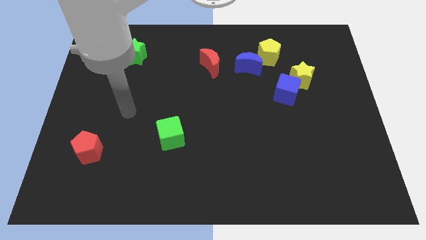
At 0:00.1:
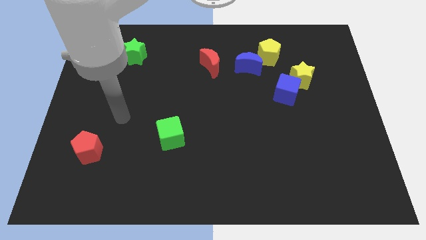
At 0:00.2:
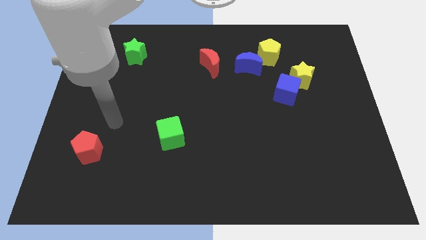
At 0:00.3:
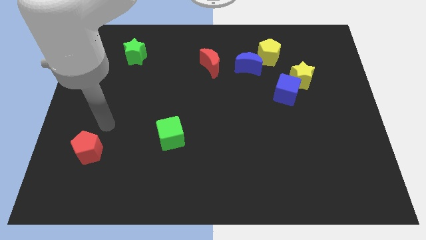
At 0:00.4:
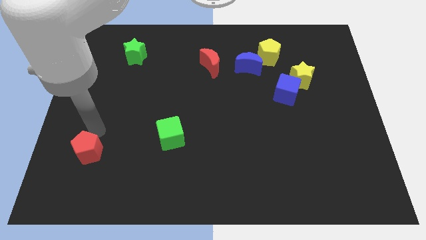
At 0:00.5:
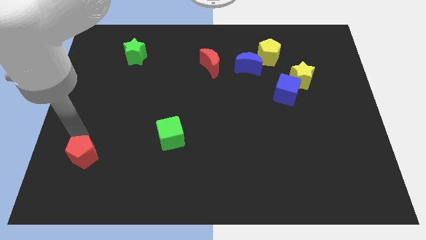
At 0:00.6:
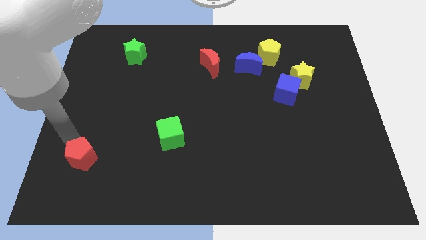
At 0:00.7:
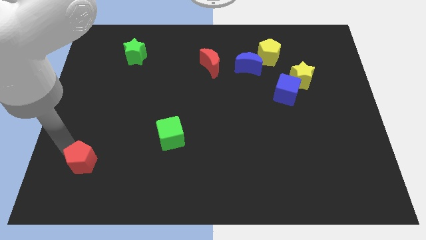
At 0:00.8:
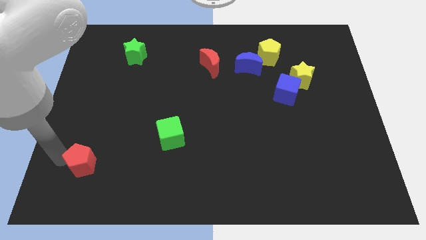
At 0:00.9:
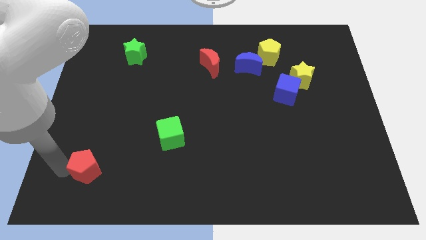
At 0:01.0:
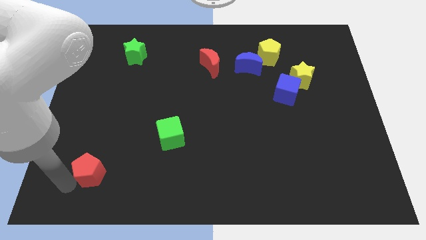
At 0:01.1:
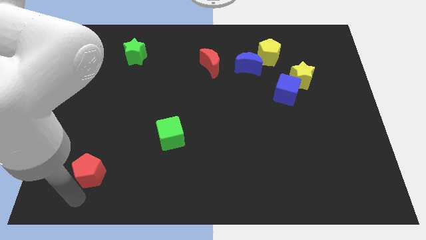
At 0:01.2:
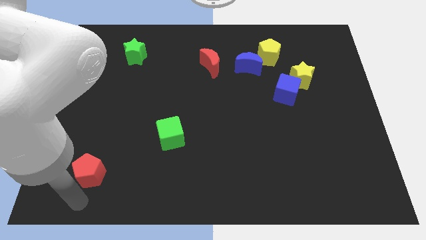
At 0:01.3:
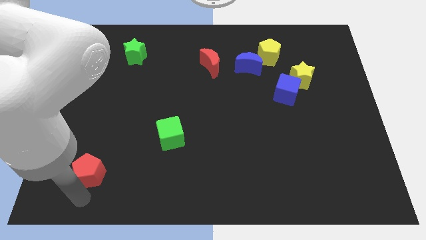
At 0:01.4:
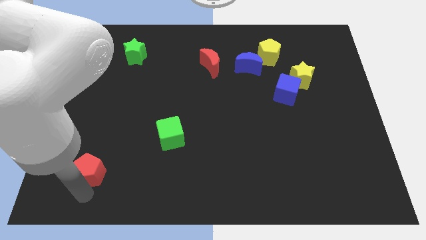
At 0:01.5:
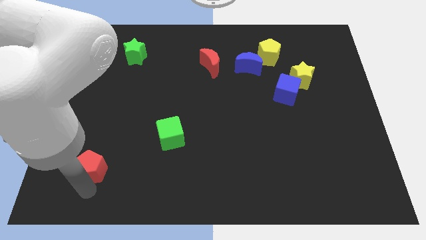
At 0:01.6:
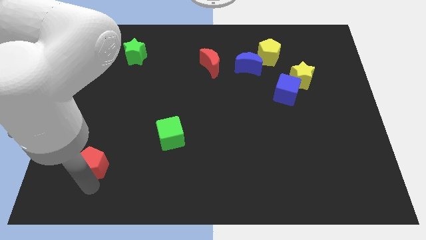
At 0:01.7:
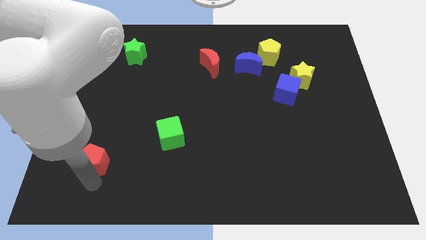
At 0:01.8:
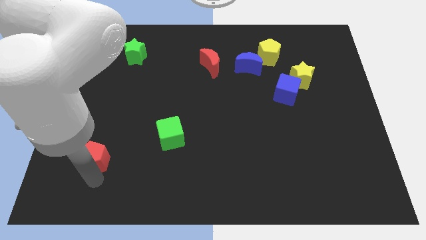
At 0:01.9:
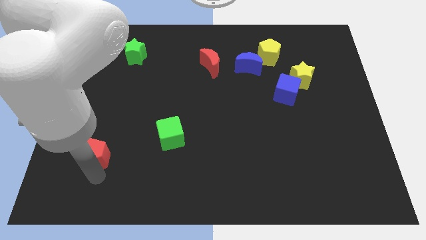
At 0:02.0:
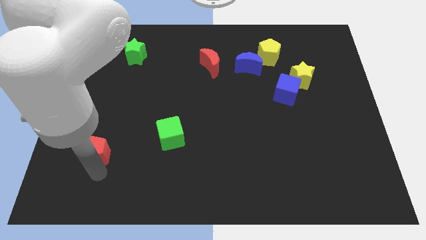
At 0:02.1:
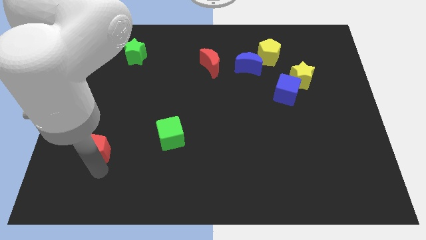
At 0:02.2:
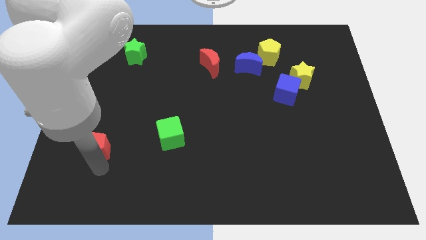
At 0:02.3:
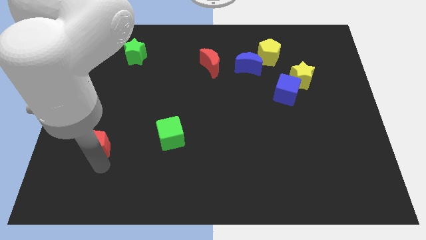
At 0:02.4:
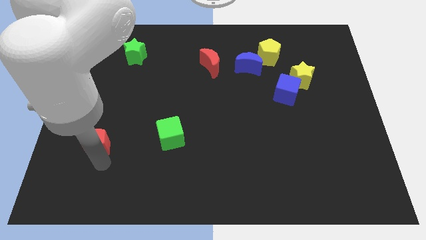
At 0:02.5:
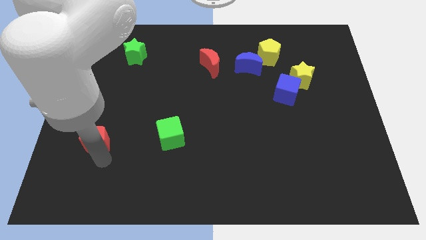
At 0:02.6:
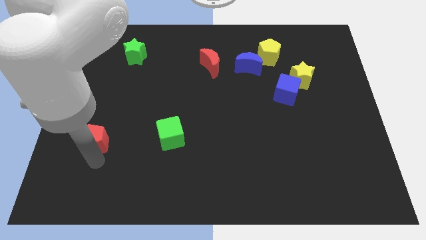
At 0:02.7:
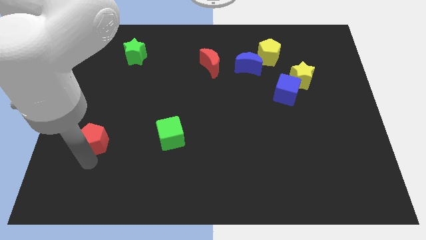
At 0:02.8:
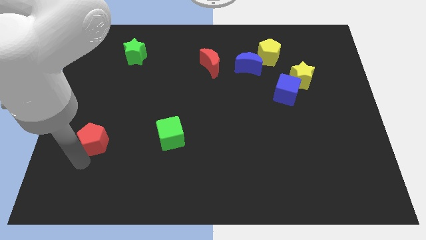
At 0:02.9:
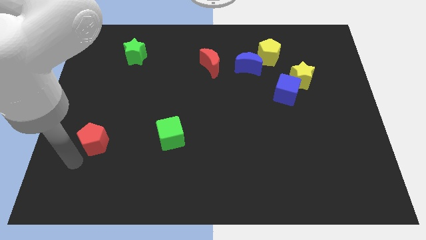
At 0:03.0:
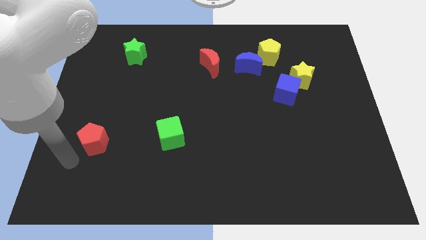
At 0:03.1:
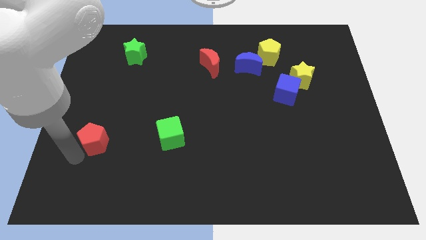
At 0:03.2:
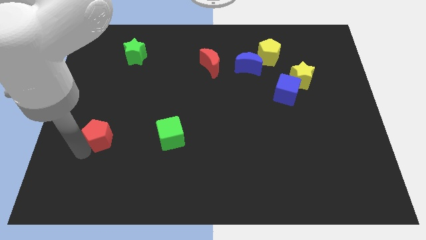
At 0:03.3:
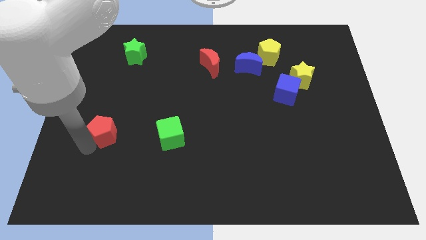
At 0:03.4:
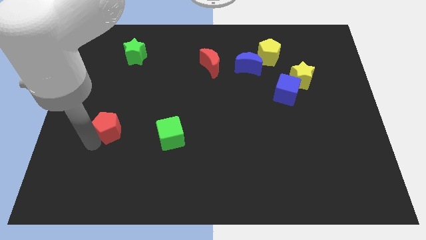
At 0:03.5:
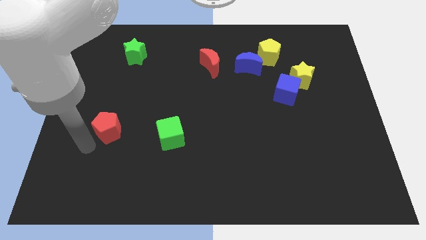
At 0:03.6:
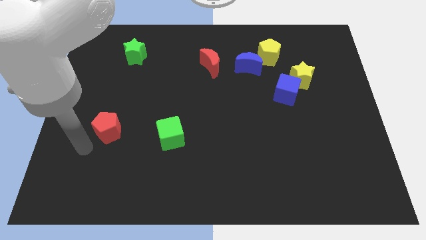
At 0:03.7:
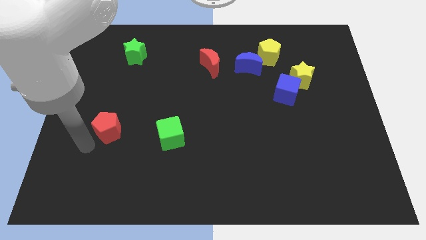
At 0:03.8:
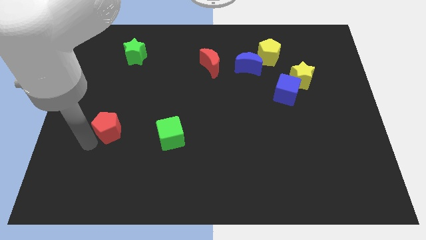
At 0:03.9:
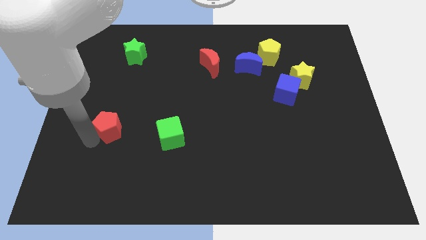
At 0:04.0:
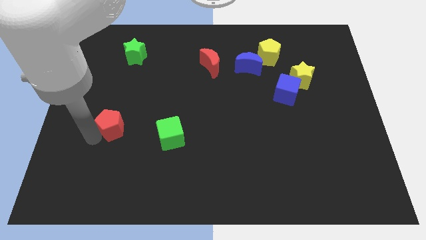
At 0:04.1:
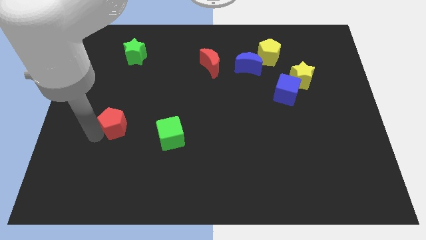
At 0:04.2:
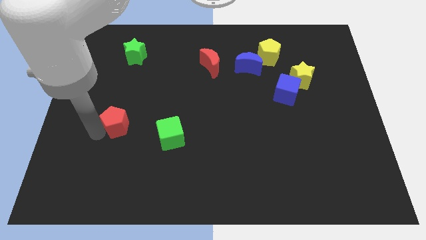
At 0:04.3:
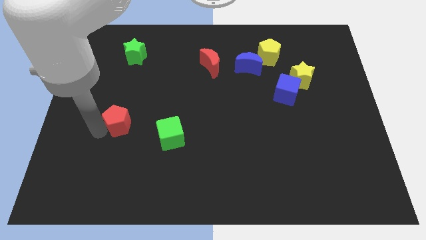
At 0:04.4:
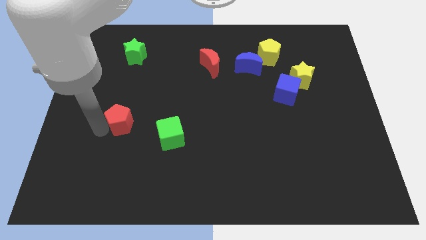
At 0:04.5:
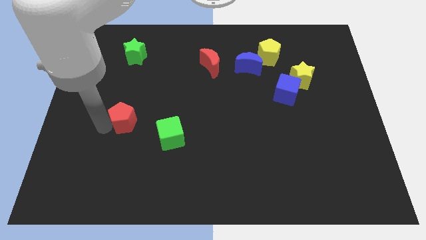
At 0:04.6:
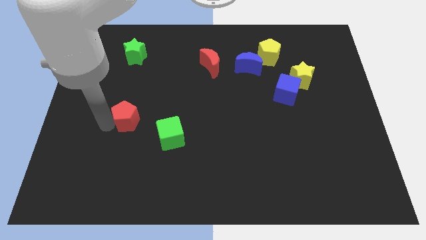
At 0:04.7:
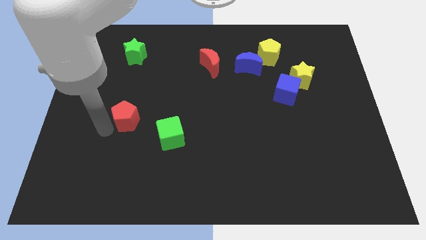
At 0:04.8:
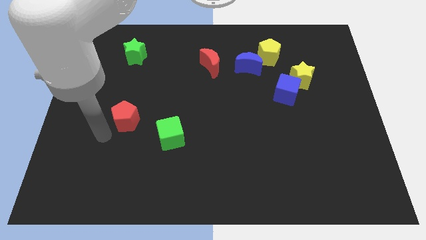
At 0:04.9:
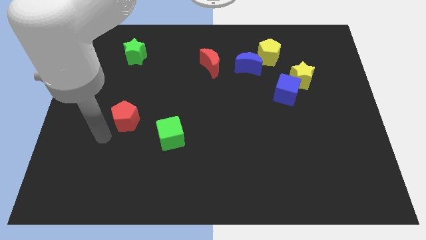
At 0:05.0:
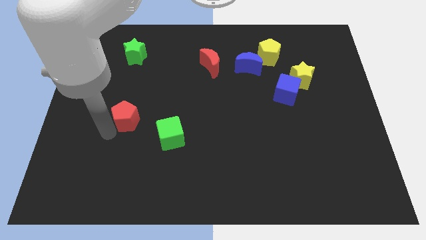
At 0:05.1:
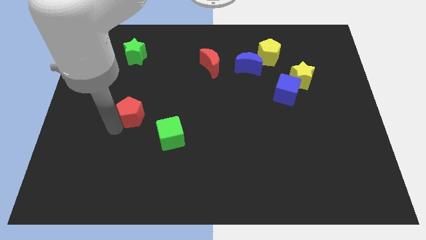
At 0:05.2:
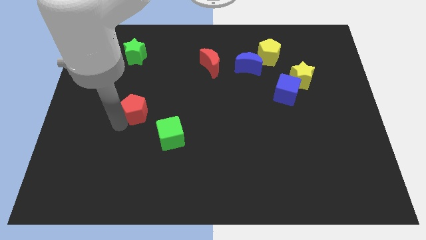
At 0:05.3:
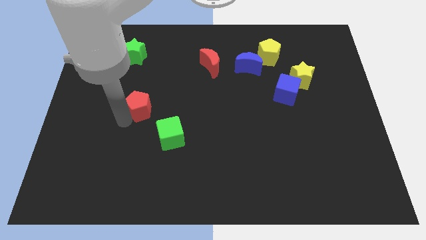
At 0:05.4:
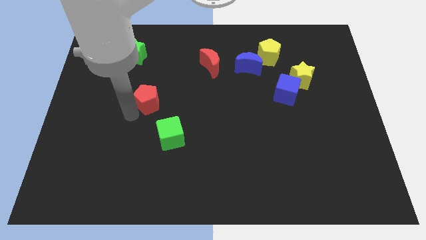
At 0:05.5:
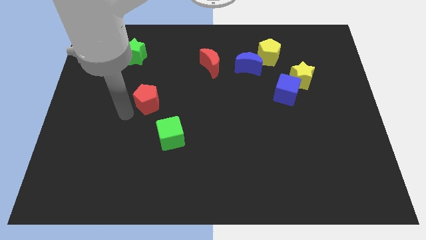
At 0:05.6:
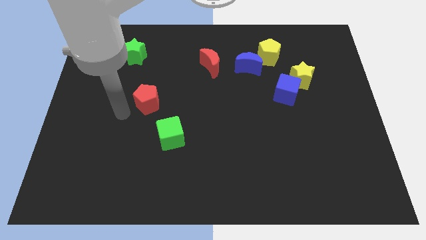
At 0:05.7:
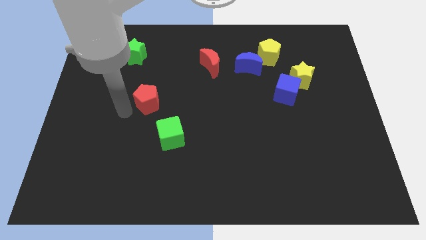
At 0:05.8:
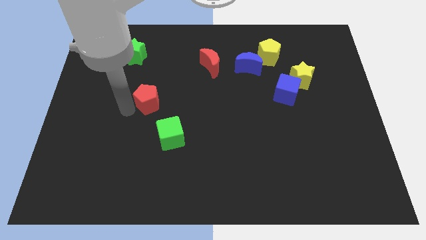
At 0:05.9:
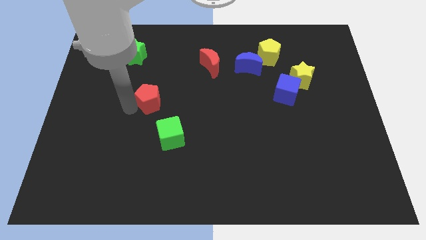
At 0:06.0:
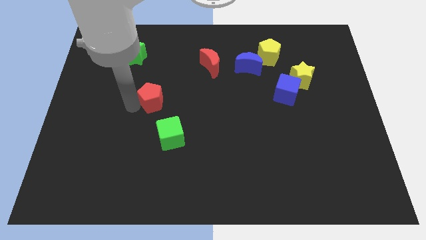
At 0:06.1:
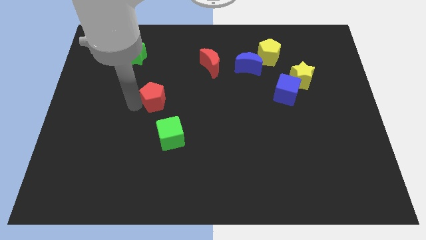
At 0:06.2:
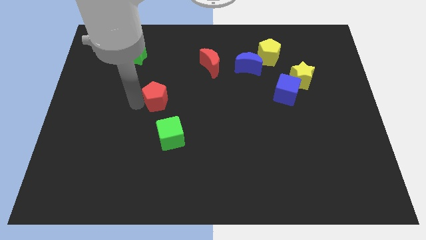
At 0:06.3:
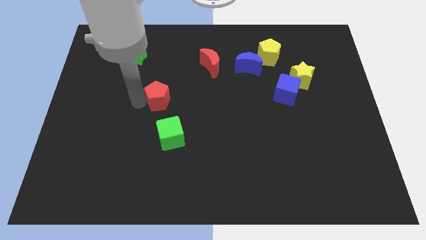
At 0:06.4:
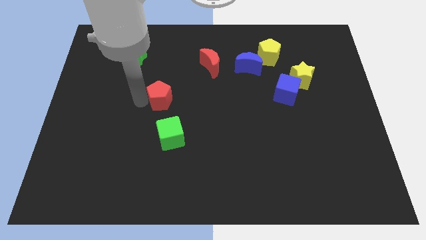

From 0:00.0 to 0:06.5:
move the red pentagon up and to the right

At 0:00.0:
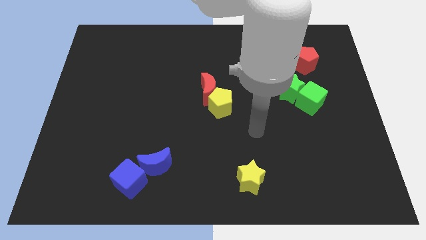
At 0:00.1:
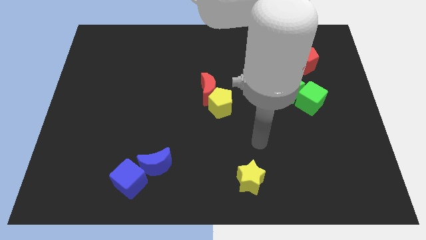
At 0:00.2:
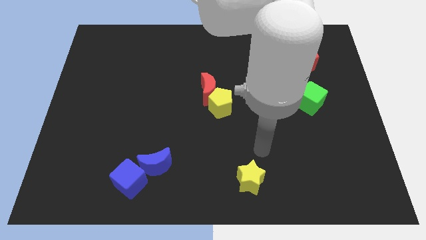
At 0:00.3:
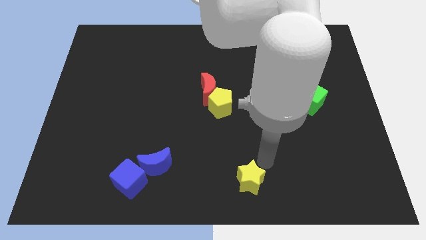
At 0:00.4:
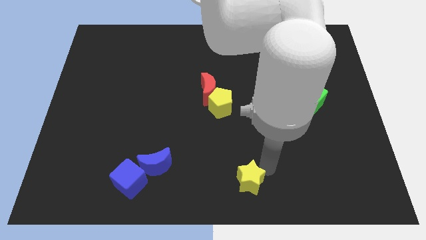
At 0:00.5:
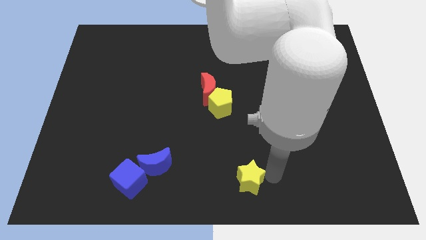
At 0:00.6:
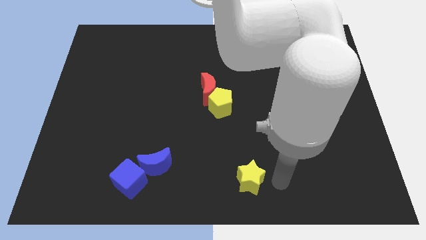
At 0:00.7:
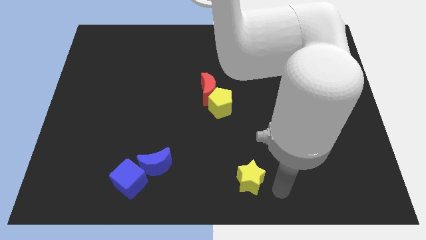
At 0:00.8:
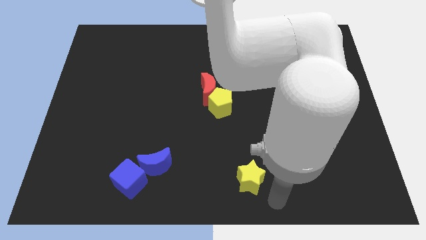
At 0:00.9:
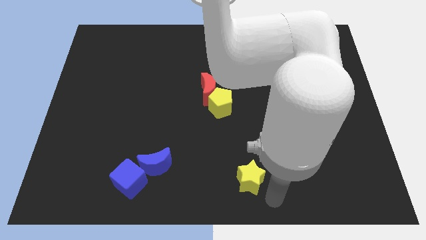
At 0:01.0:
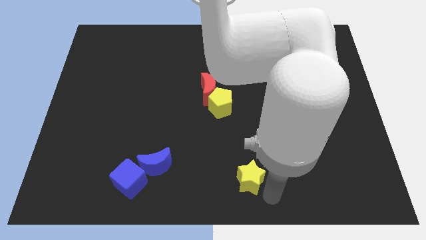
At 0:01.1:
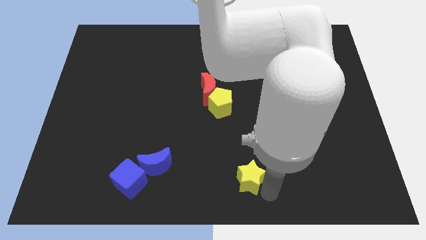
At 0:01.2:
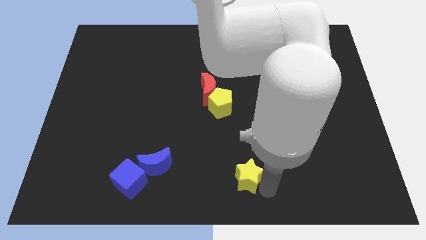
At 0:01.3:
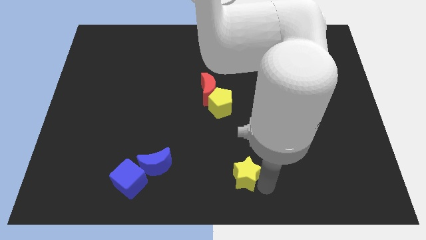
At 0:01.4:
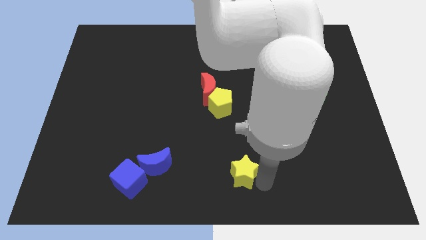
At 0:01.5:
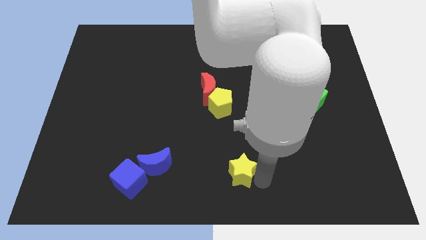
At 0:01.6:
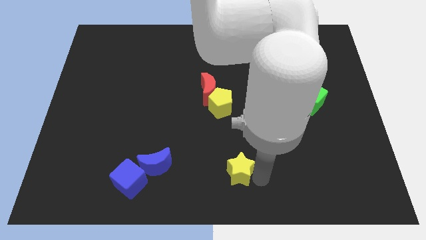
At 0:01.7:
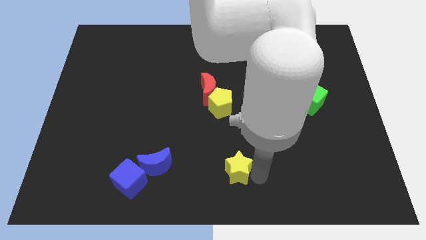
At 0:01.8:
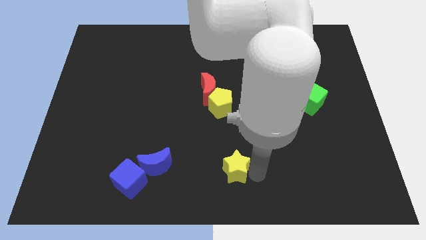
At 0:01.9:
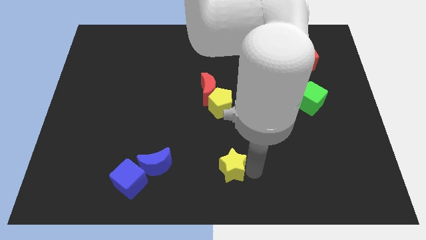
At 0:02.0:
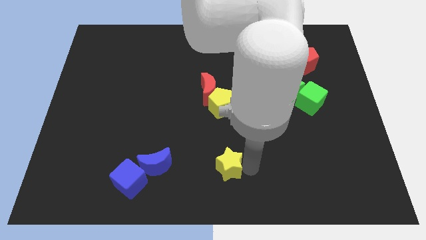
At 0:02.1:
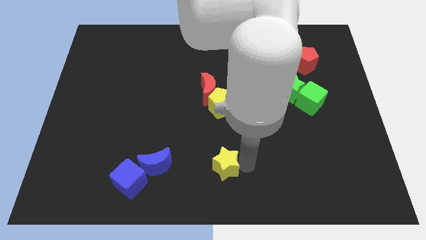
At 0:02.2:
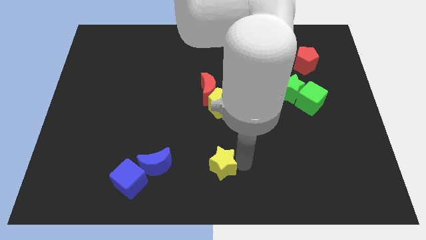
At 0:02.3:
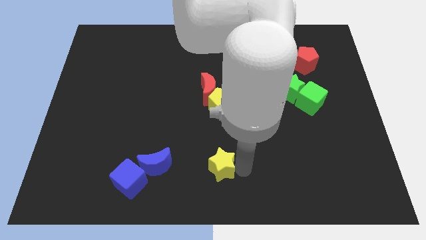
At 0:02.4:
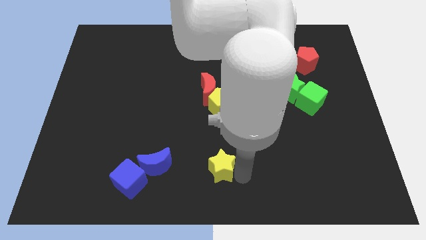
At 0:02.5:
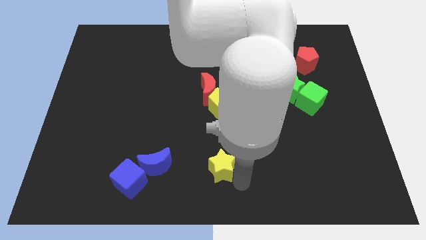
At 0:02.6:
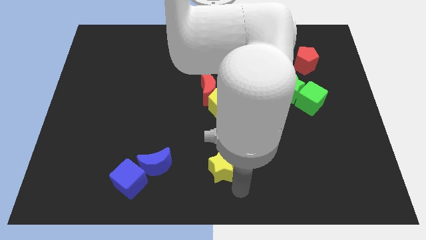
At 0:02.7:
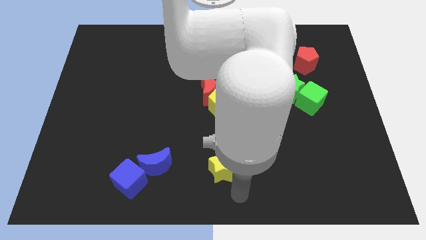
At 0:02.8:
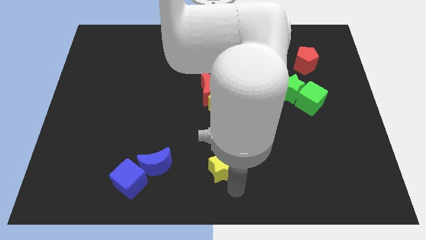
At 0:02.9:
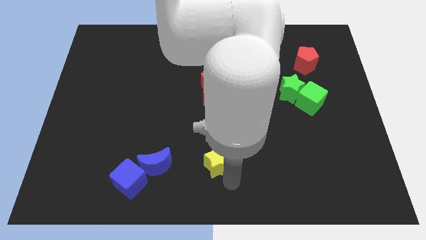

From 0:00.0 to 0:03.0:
slightly slide the yellow star up and then left
